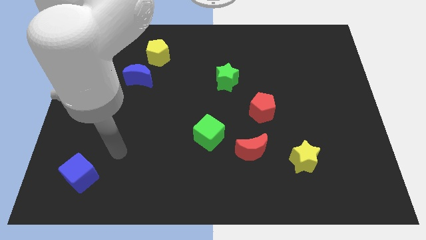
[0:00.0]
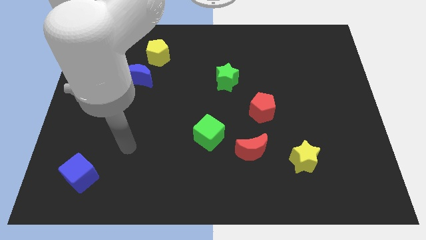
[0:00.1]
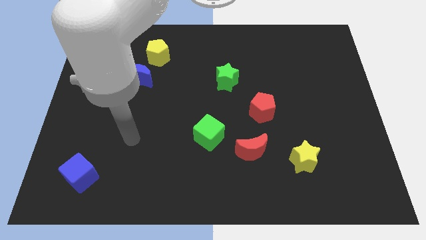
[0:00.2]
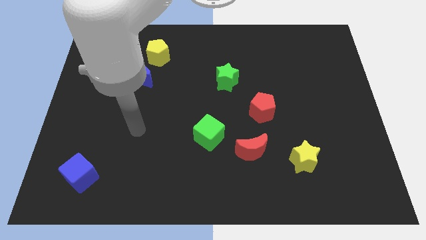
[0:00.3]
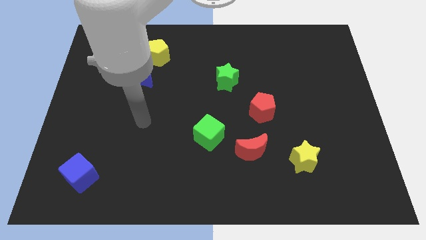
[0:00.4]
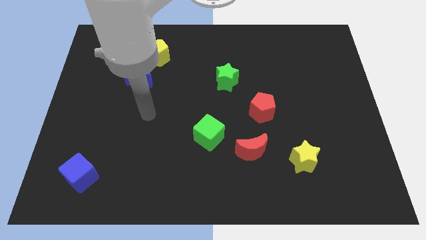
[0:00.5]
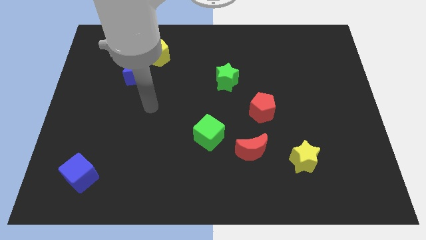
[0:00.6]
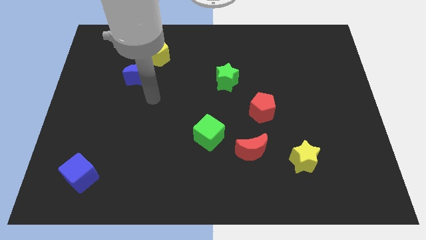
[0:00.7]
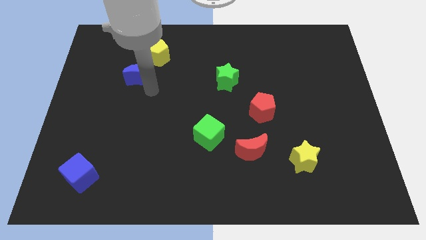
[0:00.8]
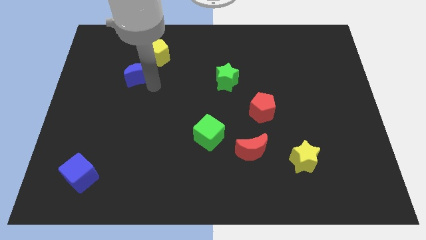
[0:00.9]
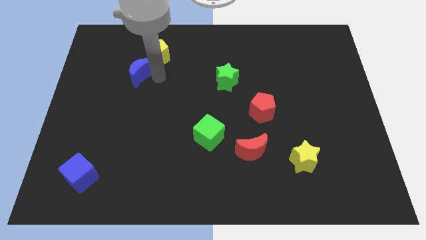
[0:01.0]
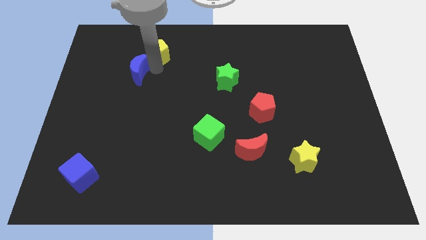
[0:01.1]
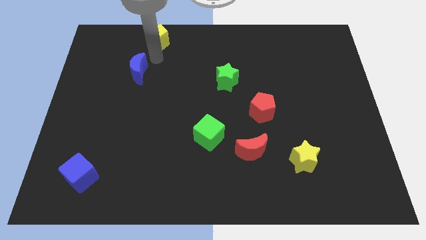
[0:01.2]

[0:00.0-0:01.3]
separate the blue moon from the yellow pentagon

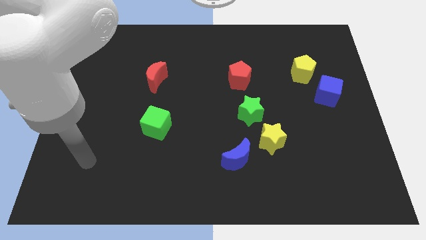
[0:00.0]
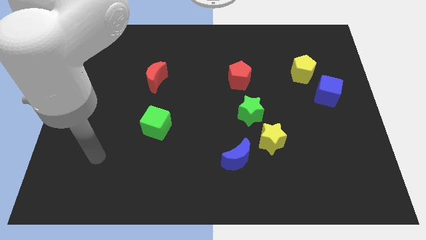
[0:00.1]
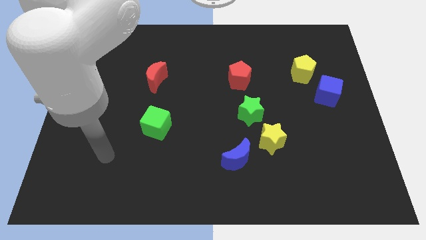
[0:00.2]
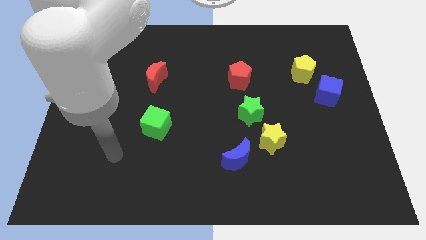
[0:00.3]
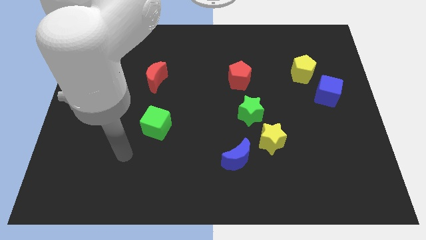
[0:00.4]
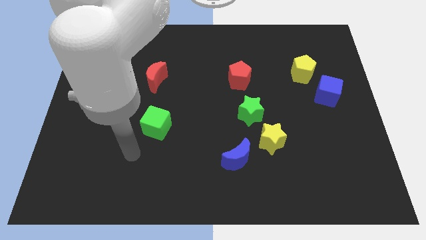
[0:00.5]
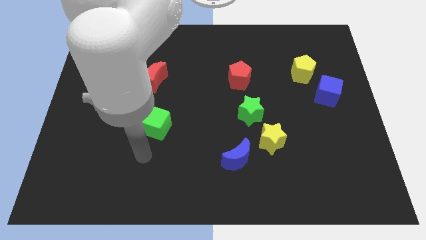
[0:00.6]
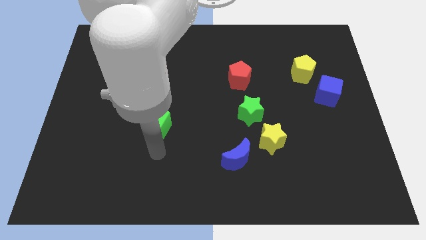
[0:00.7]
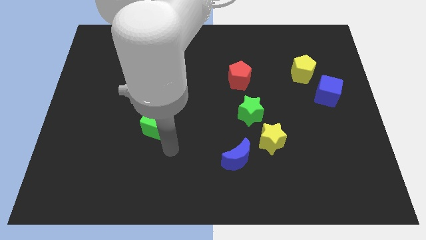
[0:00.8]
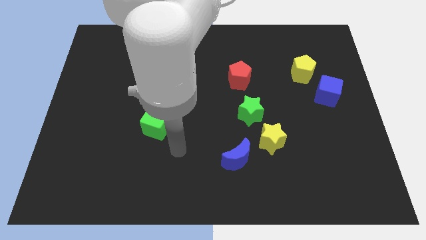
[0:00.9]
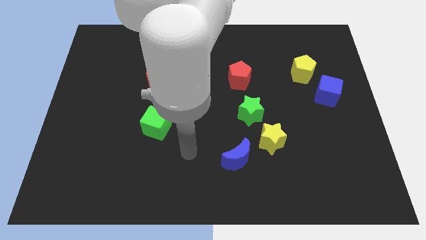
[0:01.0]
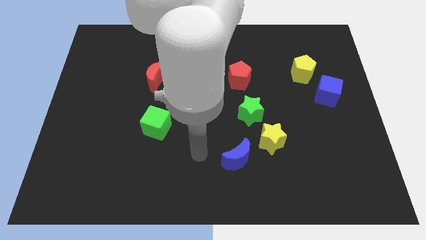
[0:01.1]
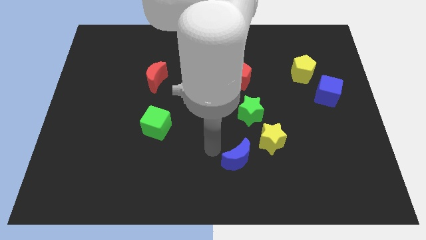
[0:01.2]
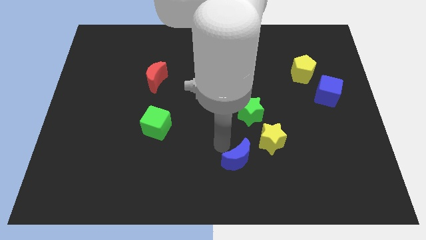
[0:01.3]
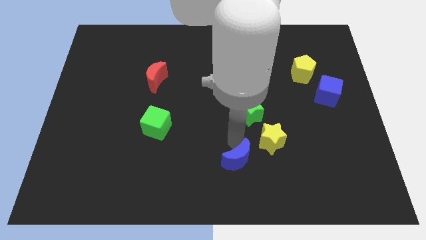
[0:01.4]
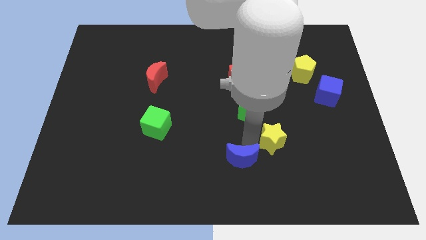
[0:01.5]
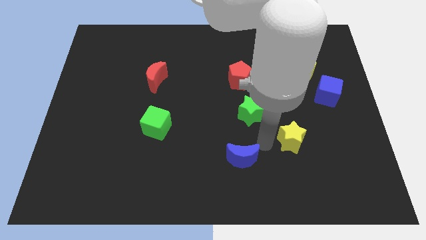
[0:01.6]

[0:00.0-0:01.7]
separate the blue moon from the yellow star

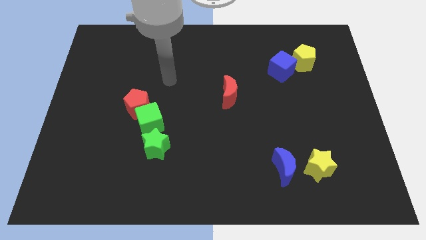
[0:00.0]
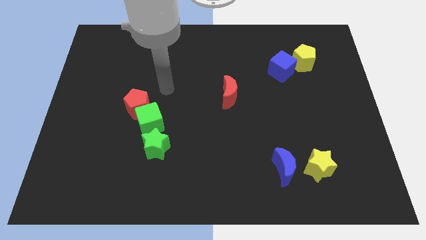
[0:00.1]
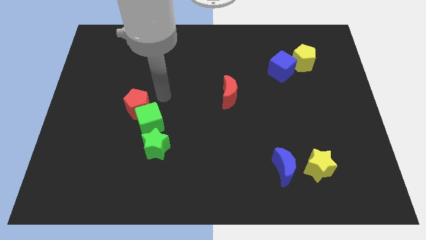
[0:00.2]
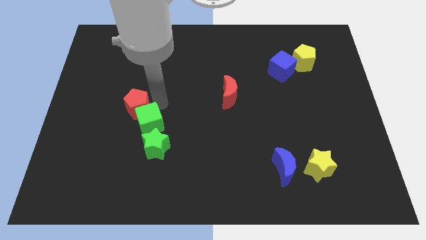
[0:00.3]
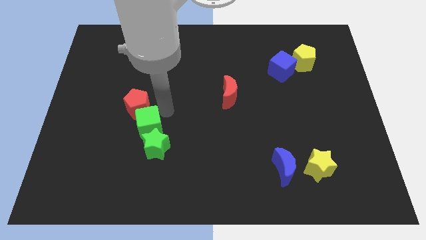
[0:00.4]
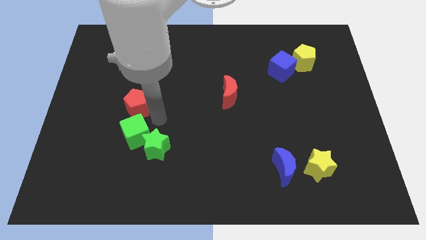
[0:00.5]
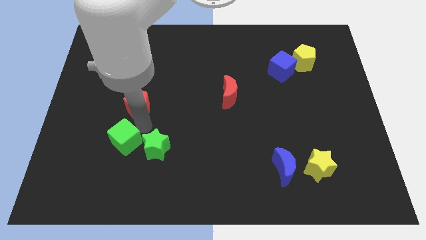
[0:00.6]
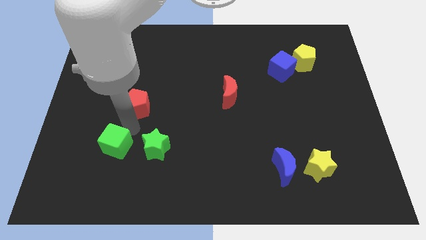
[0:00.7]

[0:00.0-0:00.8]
separate the red pentagon from the green cube

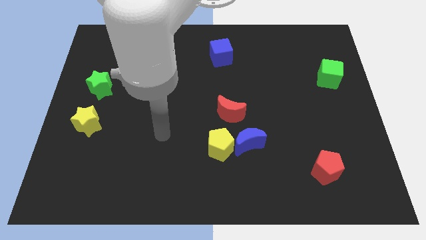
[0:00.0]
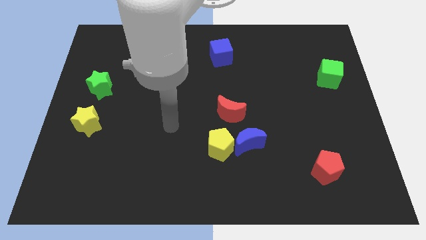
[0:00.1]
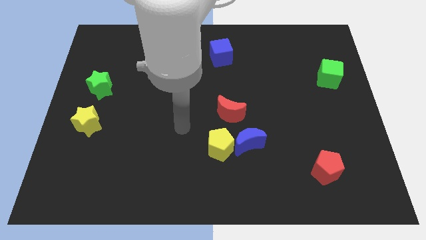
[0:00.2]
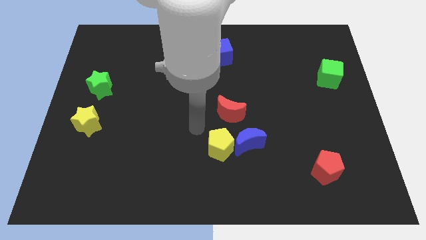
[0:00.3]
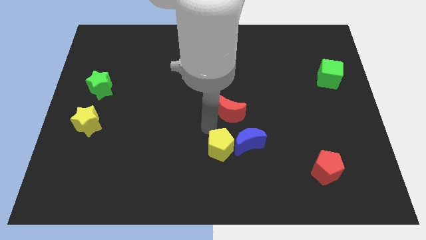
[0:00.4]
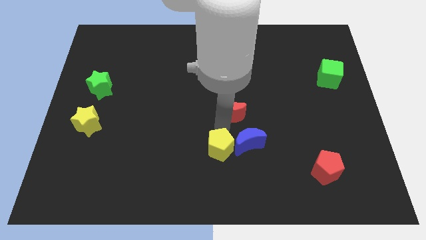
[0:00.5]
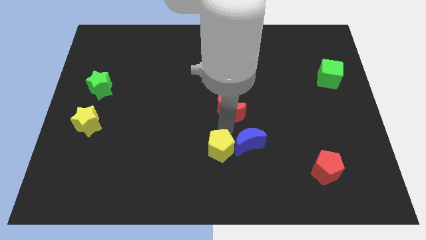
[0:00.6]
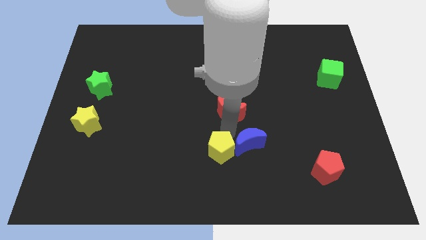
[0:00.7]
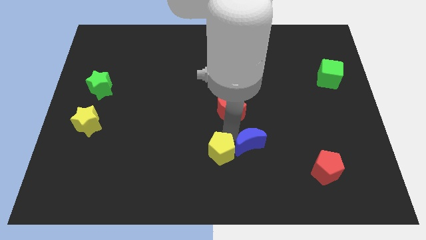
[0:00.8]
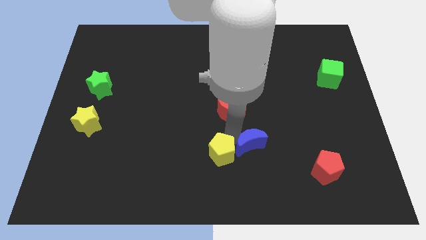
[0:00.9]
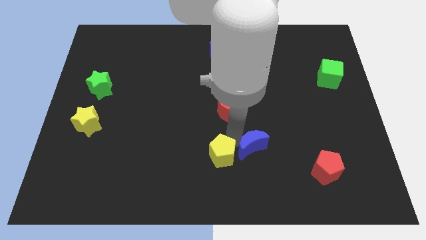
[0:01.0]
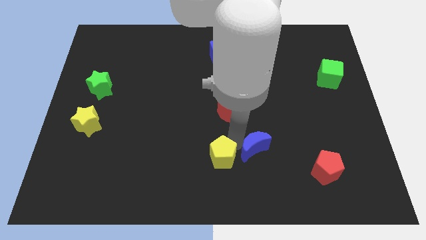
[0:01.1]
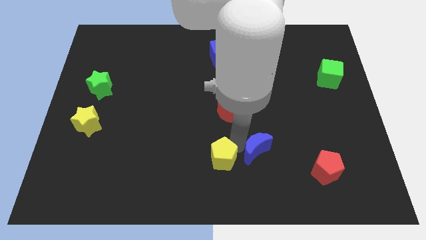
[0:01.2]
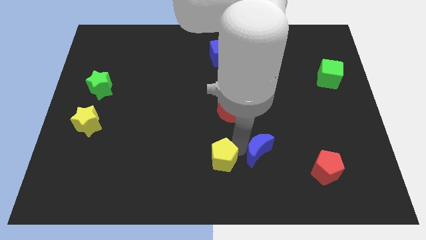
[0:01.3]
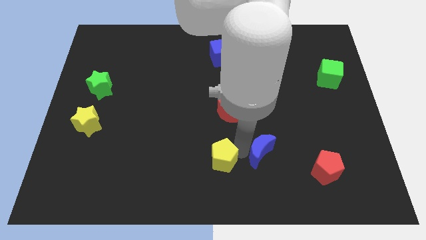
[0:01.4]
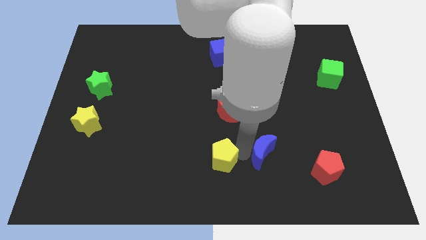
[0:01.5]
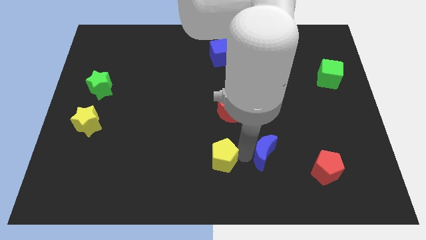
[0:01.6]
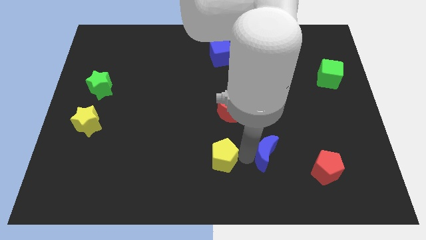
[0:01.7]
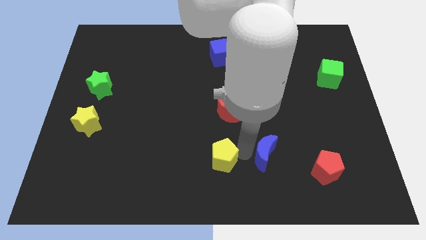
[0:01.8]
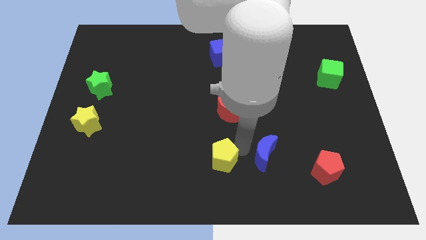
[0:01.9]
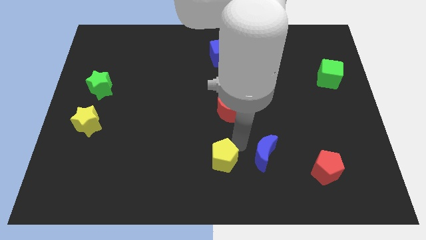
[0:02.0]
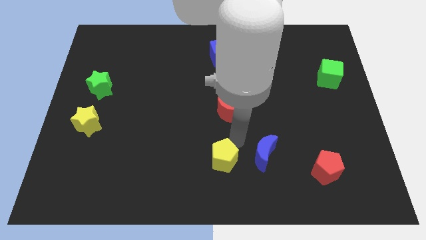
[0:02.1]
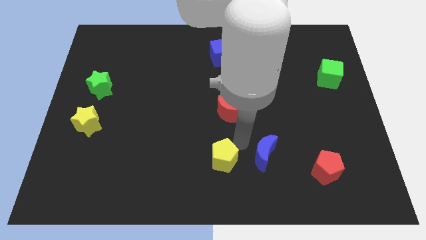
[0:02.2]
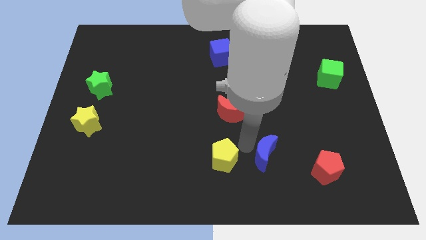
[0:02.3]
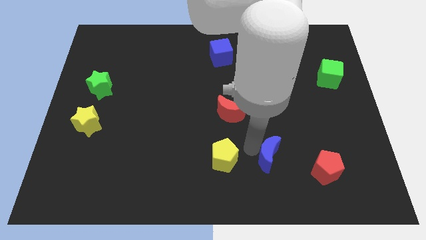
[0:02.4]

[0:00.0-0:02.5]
move the blue moon away from the yellow pentagon and red moon

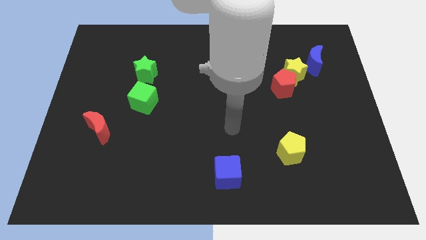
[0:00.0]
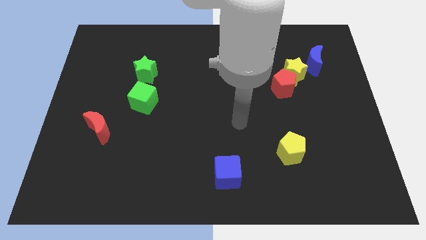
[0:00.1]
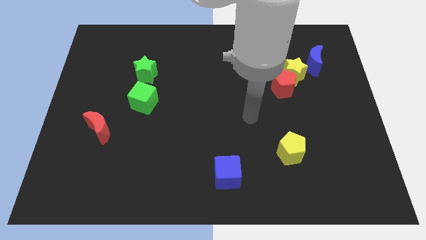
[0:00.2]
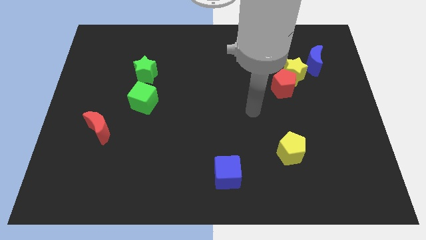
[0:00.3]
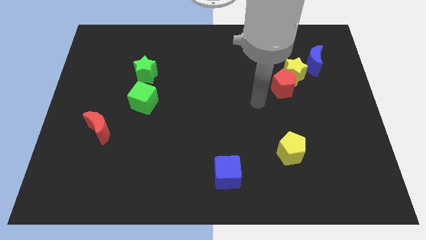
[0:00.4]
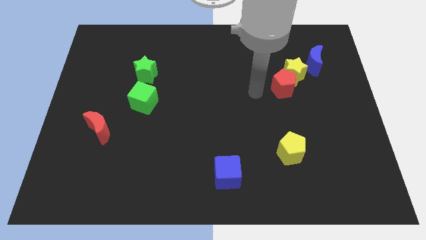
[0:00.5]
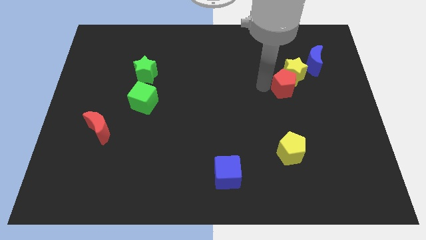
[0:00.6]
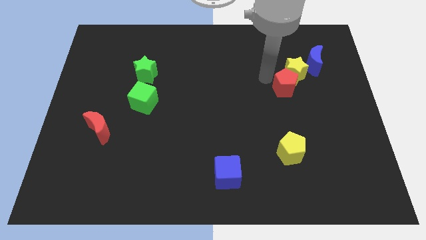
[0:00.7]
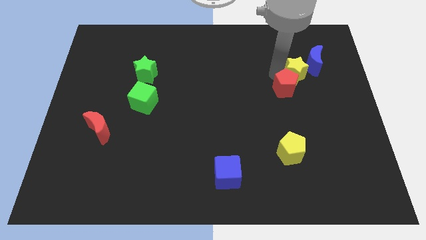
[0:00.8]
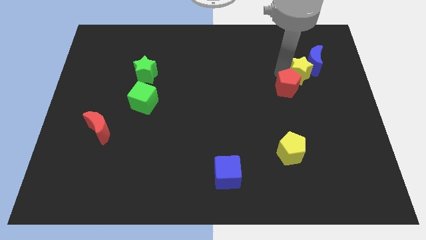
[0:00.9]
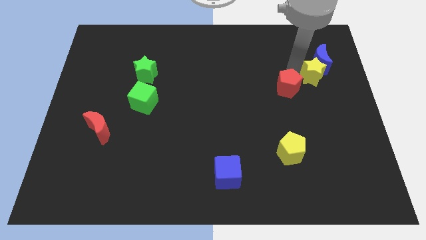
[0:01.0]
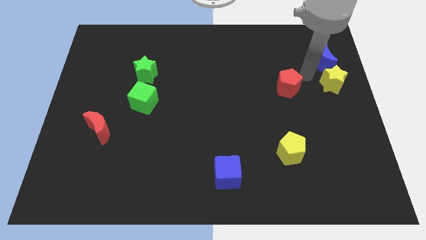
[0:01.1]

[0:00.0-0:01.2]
pull the red pentagon apart from the yellow star

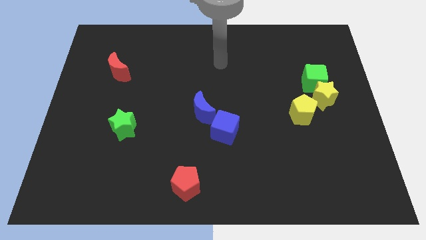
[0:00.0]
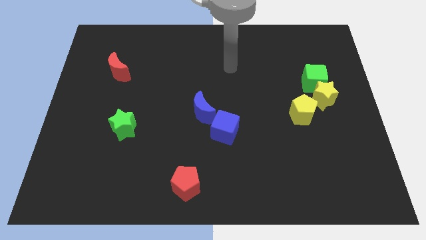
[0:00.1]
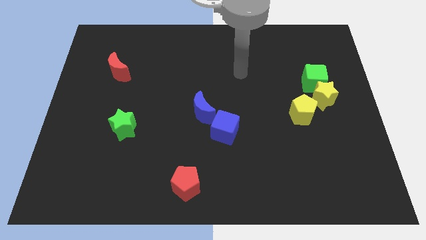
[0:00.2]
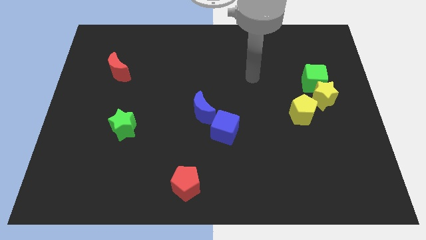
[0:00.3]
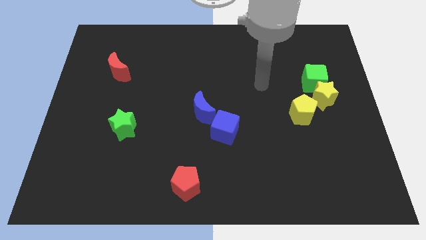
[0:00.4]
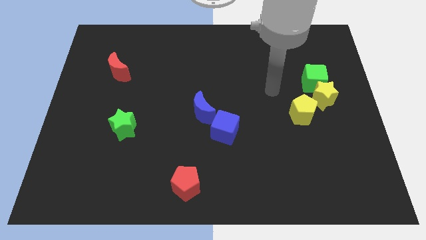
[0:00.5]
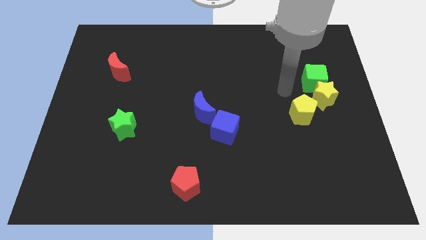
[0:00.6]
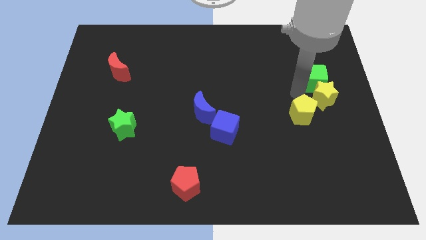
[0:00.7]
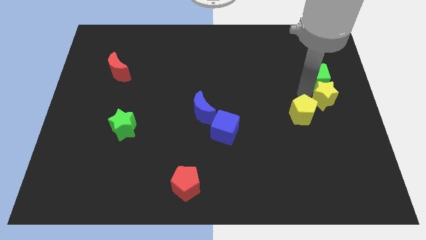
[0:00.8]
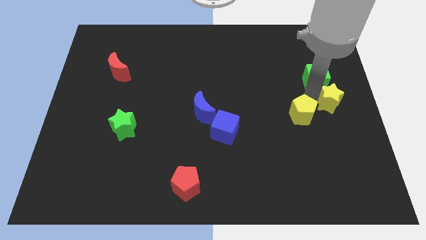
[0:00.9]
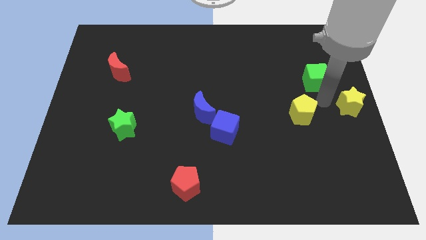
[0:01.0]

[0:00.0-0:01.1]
move the green cube away from the yellow star

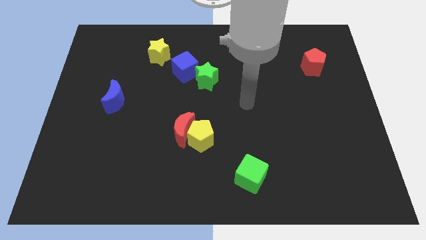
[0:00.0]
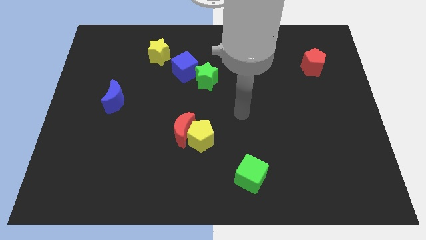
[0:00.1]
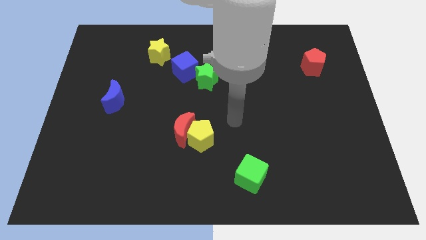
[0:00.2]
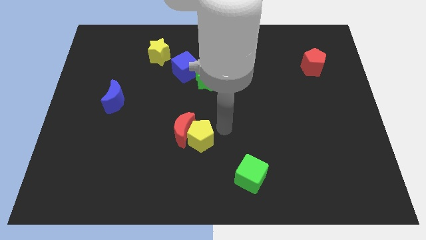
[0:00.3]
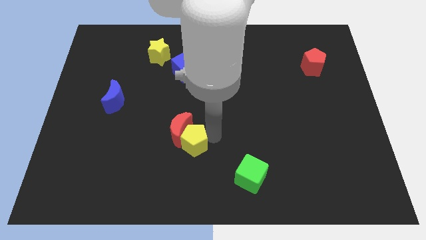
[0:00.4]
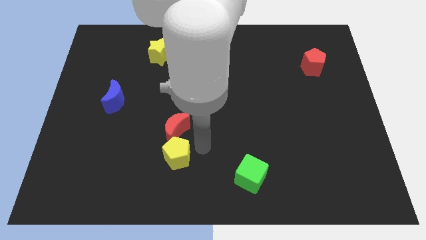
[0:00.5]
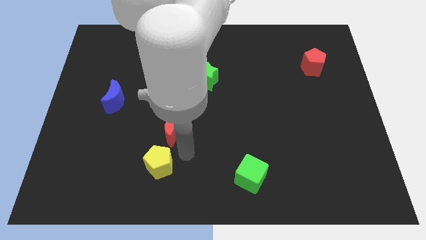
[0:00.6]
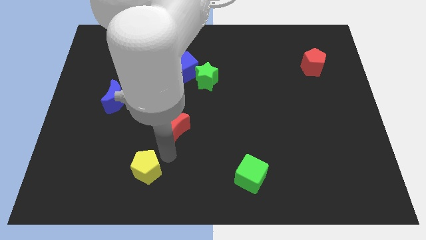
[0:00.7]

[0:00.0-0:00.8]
pull the red moon apart from the yellow pentagon
